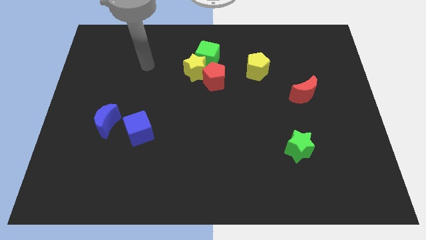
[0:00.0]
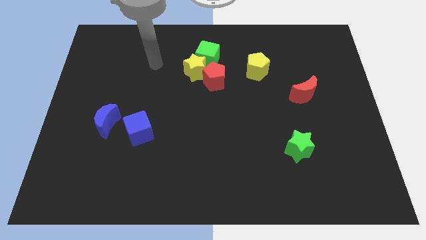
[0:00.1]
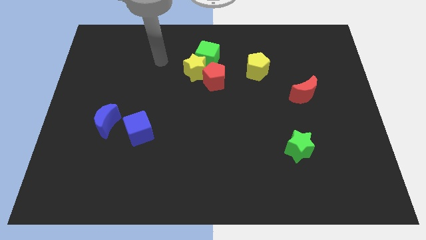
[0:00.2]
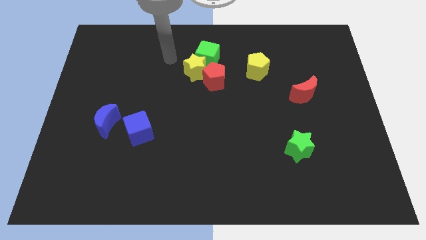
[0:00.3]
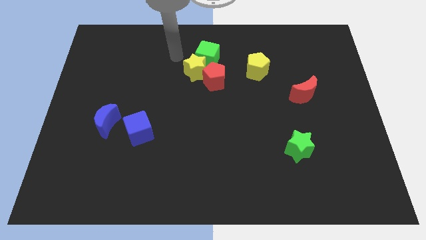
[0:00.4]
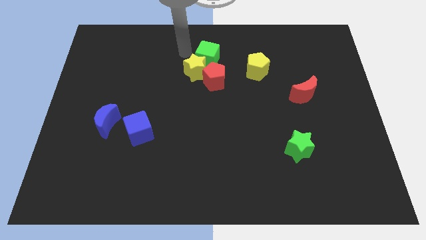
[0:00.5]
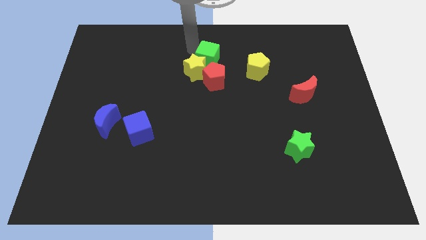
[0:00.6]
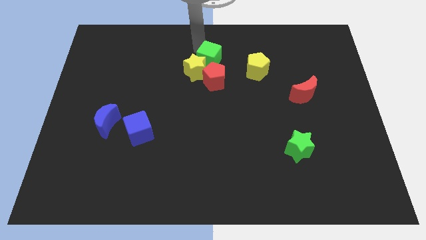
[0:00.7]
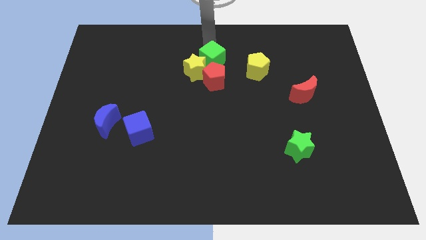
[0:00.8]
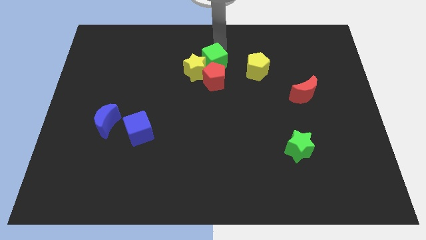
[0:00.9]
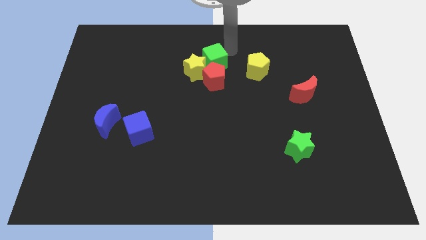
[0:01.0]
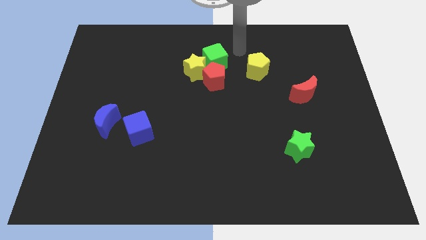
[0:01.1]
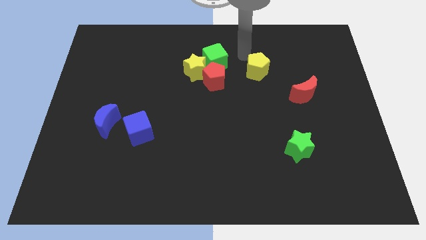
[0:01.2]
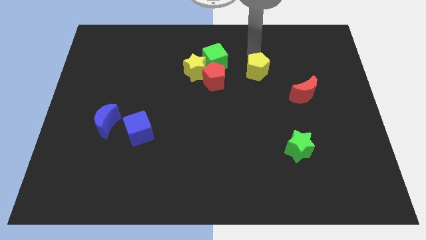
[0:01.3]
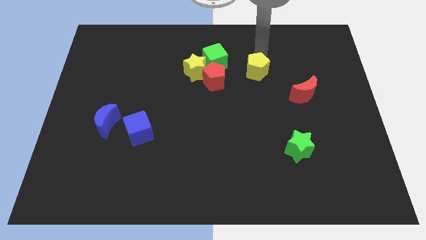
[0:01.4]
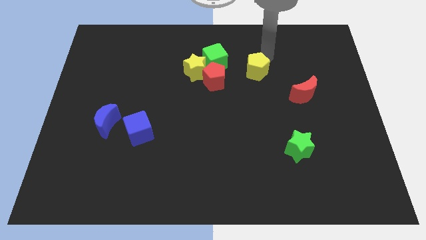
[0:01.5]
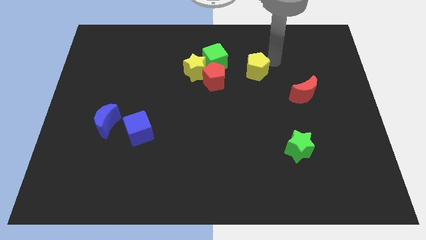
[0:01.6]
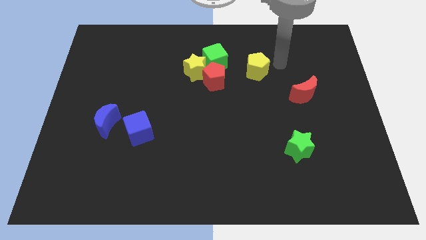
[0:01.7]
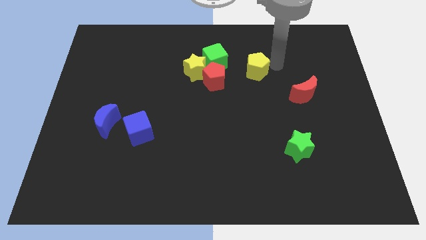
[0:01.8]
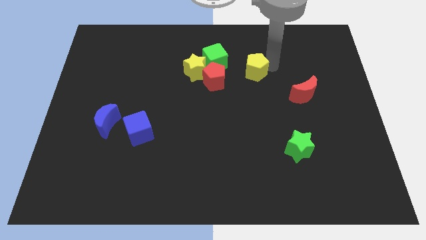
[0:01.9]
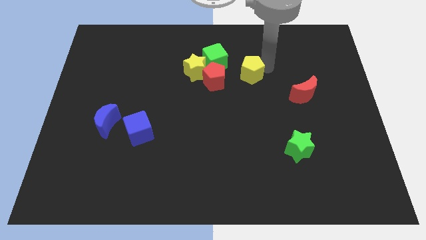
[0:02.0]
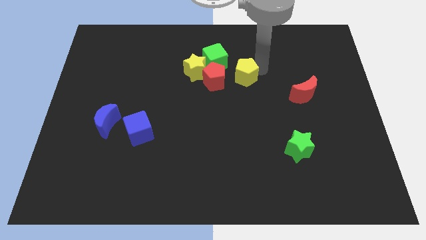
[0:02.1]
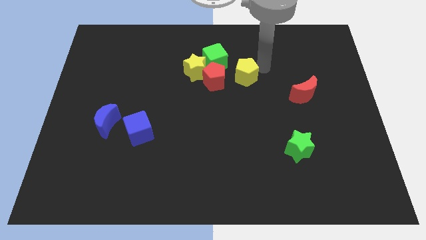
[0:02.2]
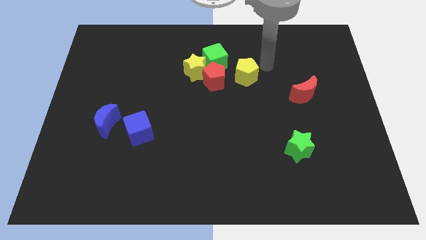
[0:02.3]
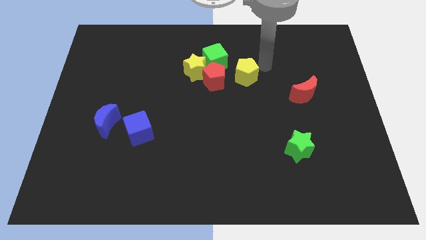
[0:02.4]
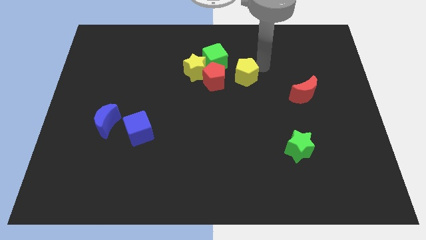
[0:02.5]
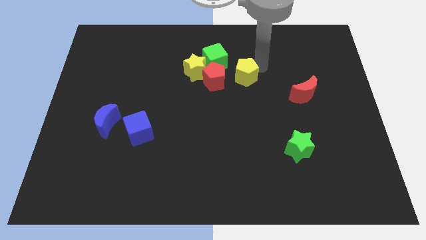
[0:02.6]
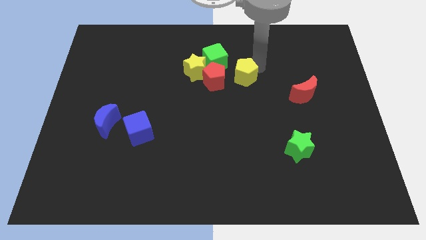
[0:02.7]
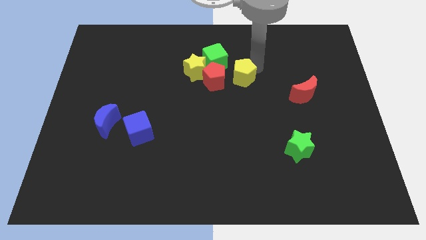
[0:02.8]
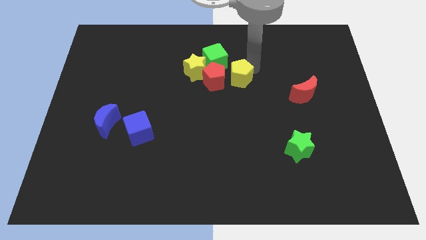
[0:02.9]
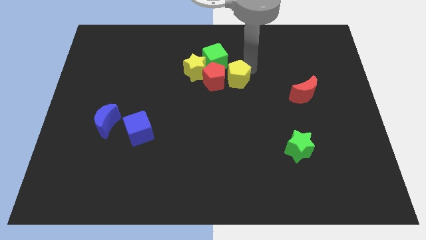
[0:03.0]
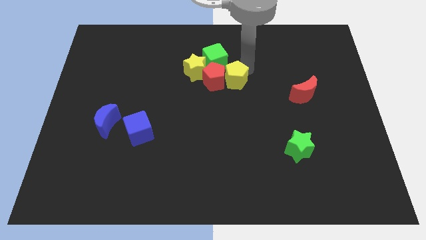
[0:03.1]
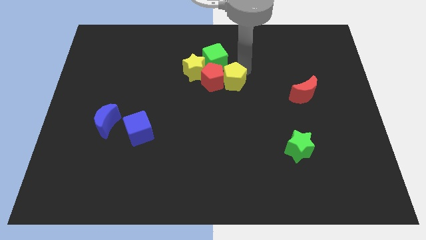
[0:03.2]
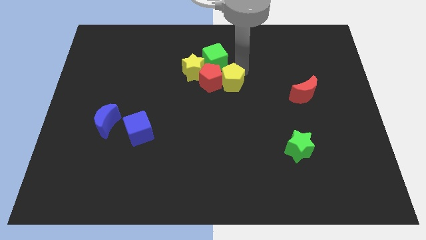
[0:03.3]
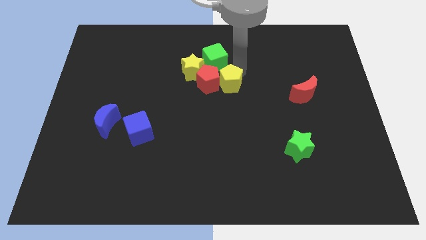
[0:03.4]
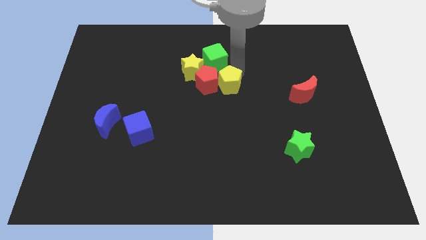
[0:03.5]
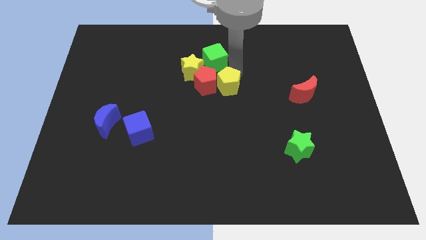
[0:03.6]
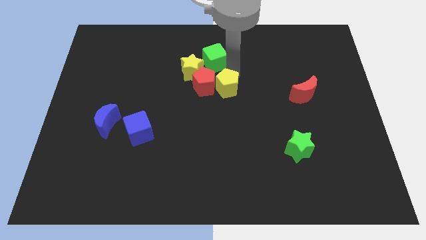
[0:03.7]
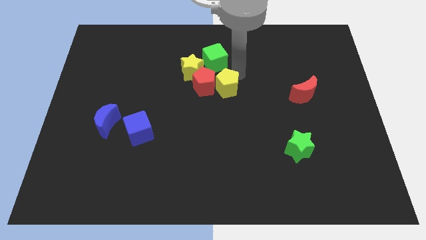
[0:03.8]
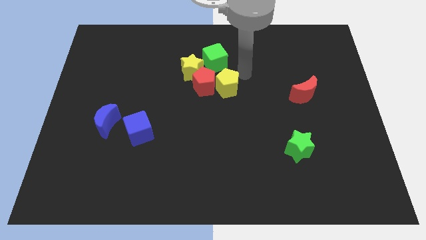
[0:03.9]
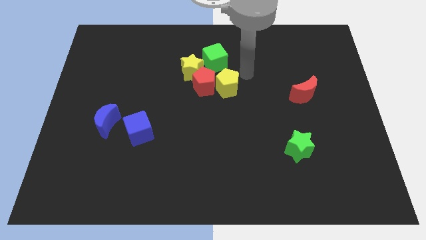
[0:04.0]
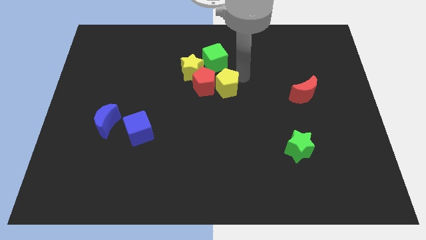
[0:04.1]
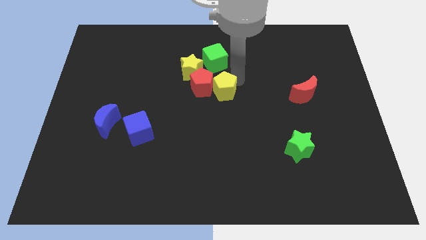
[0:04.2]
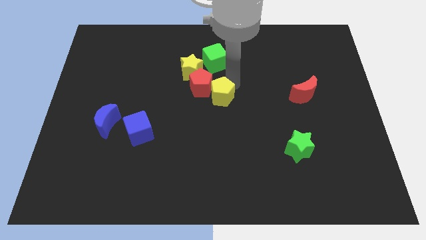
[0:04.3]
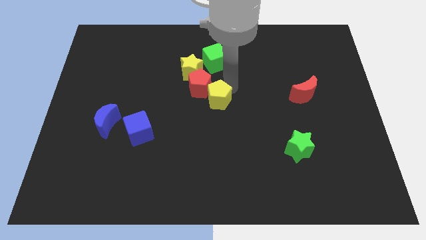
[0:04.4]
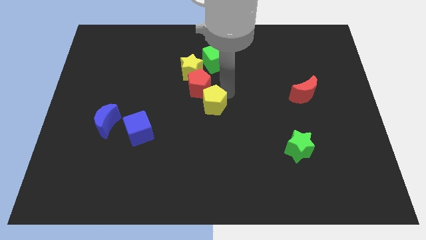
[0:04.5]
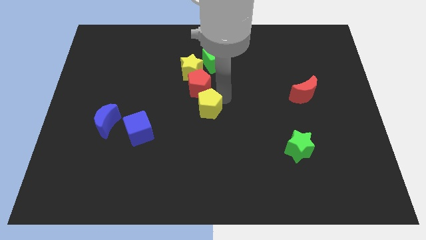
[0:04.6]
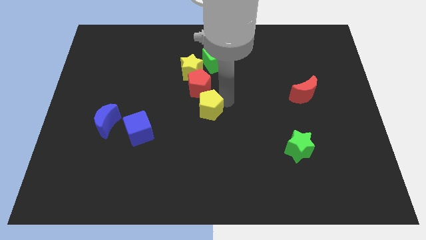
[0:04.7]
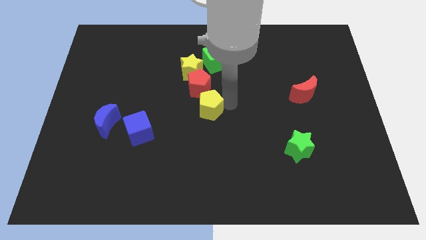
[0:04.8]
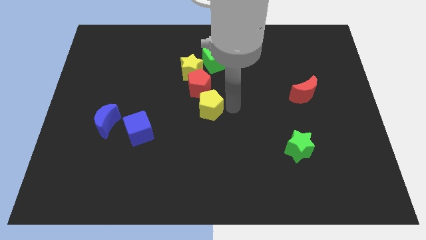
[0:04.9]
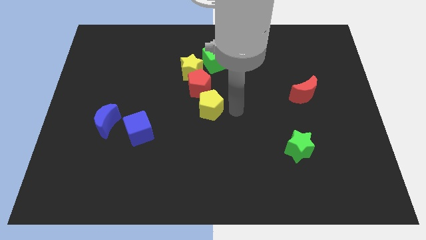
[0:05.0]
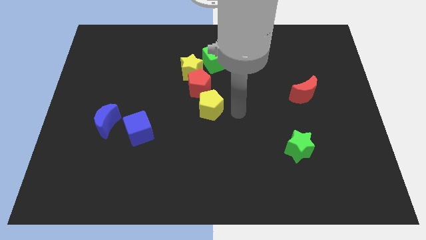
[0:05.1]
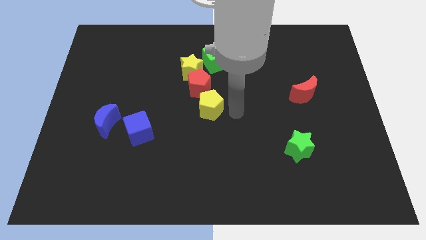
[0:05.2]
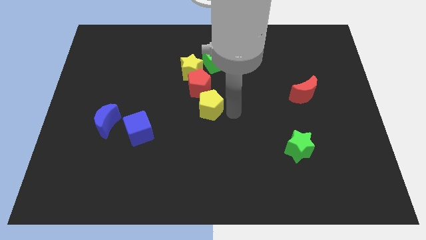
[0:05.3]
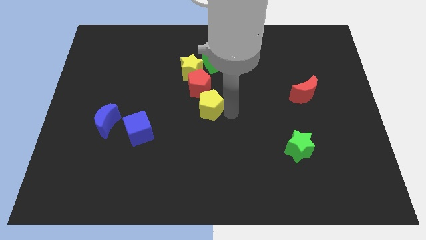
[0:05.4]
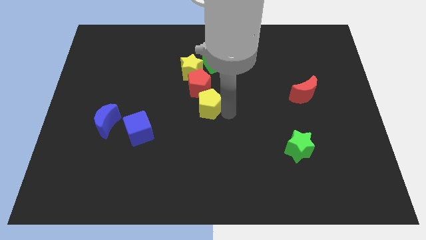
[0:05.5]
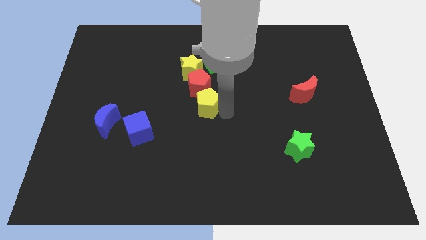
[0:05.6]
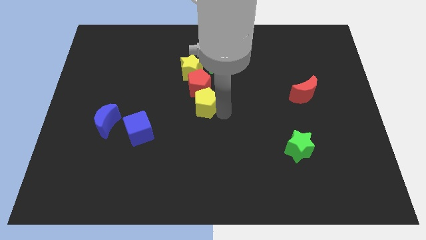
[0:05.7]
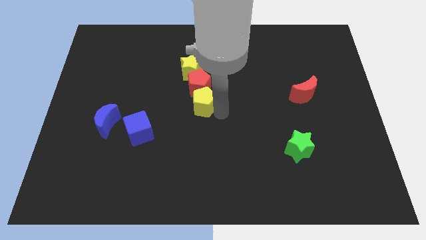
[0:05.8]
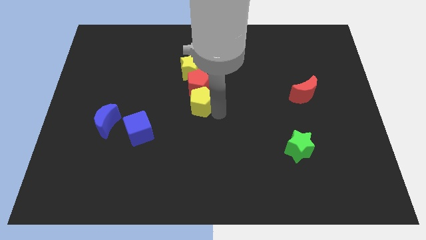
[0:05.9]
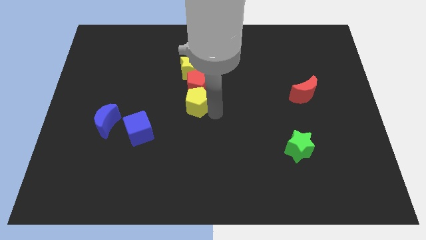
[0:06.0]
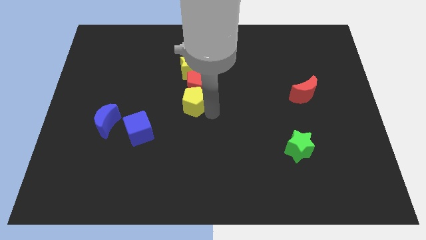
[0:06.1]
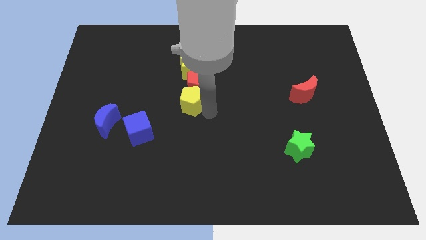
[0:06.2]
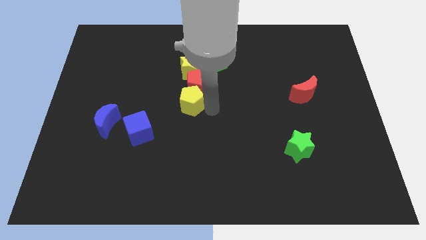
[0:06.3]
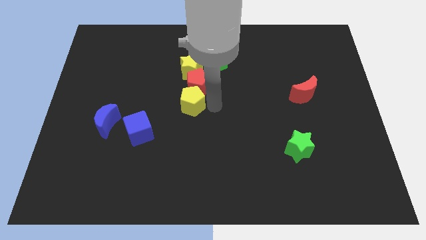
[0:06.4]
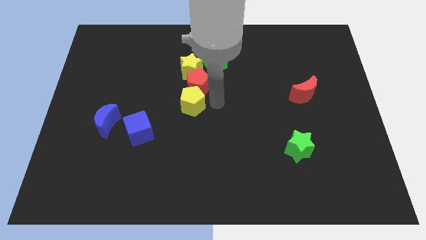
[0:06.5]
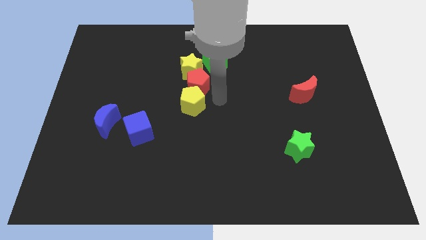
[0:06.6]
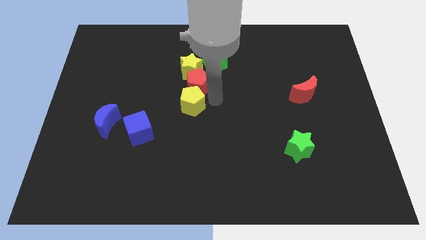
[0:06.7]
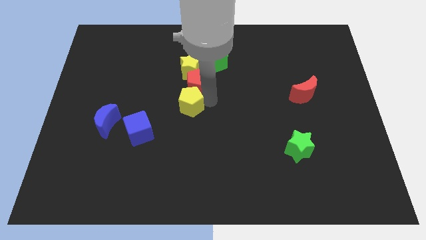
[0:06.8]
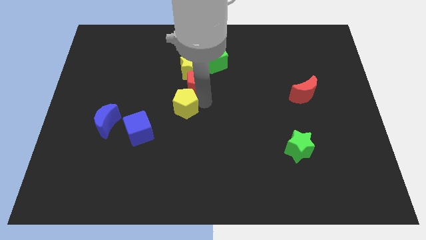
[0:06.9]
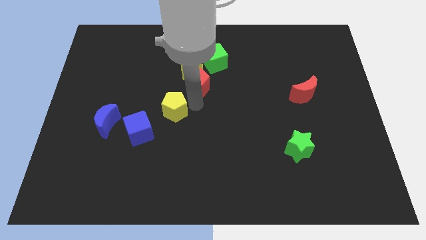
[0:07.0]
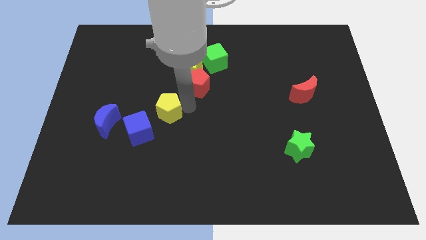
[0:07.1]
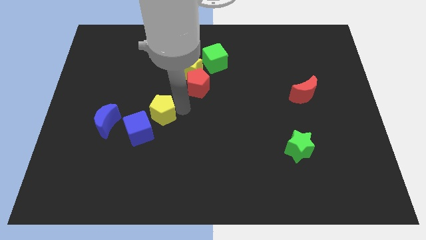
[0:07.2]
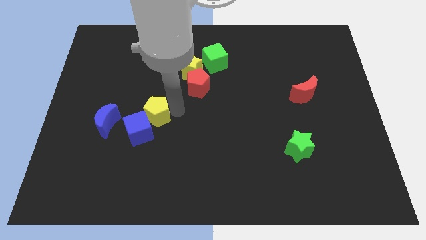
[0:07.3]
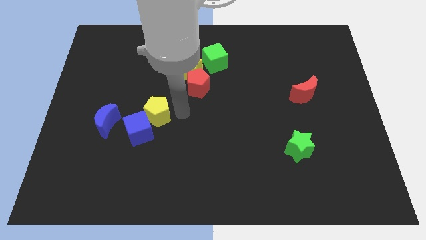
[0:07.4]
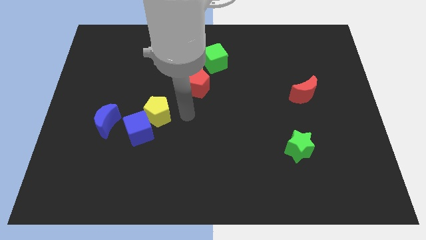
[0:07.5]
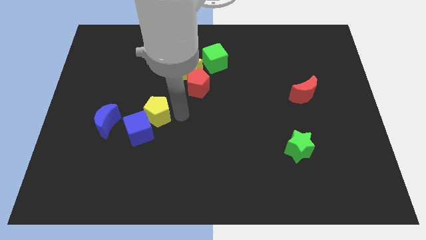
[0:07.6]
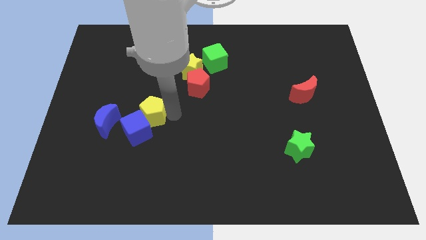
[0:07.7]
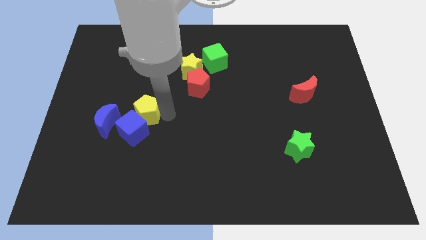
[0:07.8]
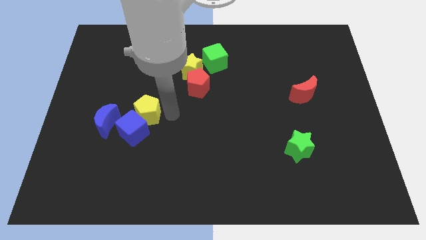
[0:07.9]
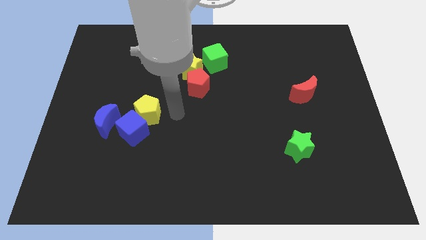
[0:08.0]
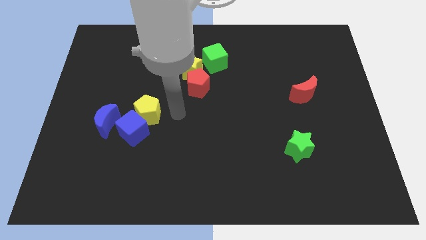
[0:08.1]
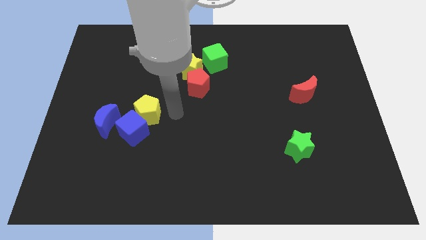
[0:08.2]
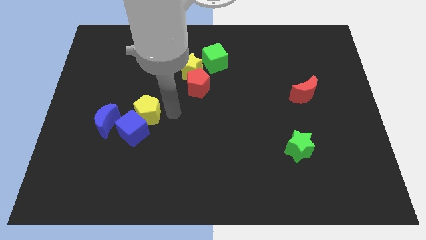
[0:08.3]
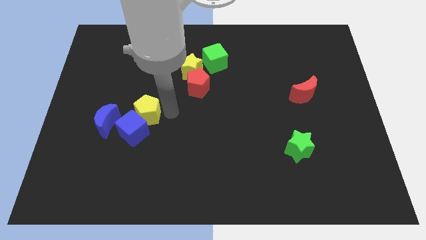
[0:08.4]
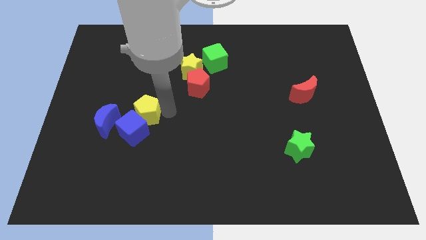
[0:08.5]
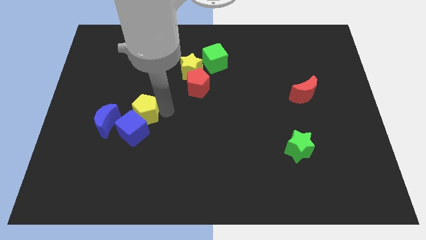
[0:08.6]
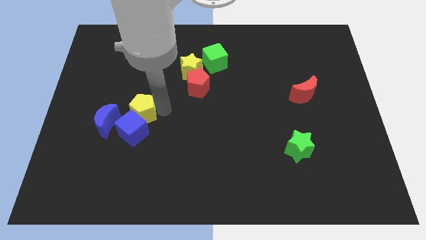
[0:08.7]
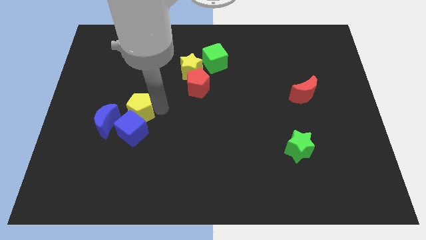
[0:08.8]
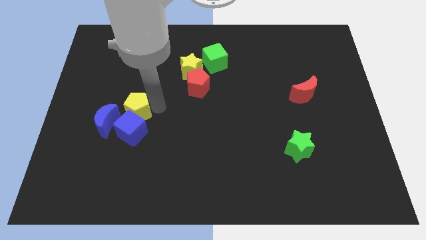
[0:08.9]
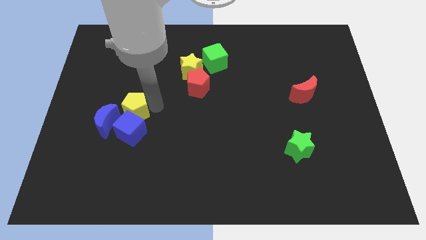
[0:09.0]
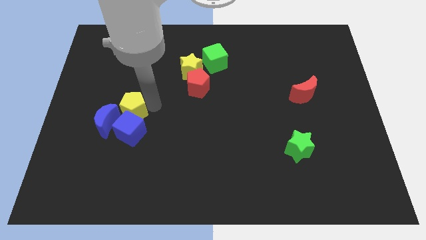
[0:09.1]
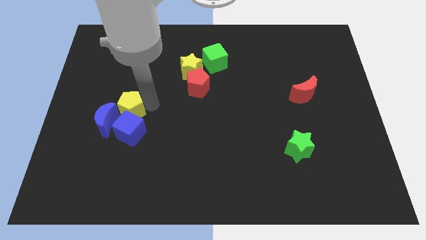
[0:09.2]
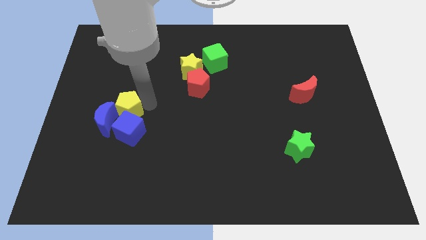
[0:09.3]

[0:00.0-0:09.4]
slide the yellow pentagon towards the blue moon
